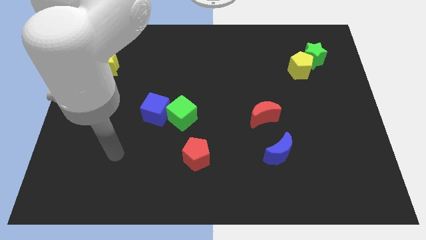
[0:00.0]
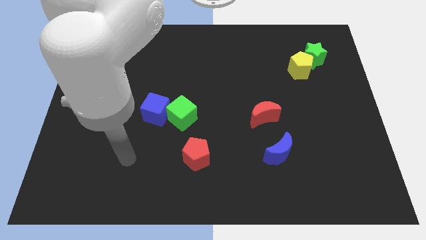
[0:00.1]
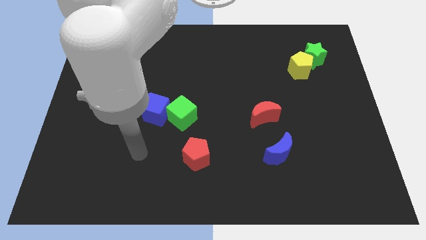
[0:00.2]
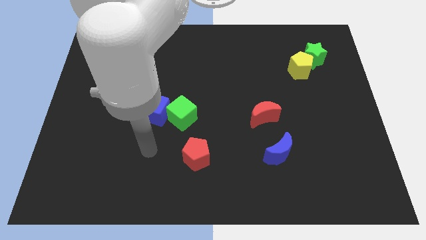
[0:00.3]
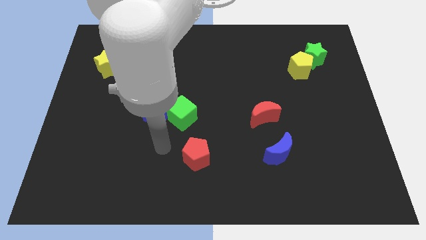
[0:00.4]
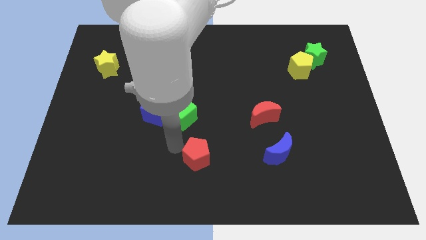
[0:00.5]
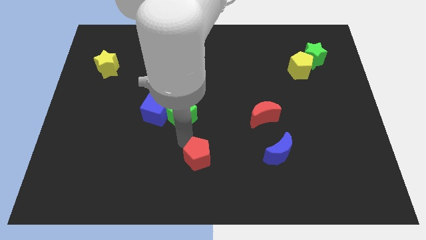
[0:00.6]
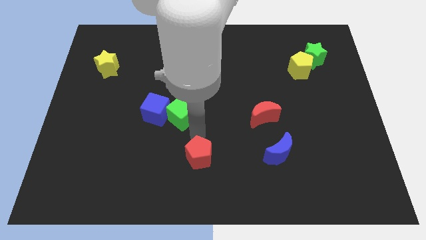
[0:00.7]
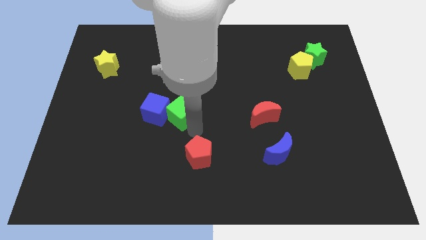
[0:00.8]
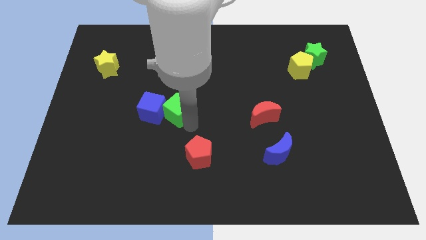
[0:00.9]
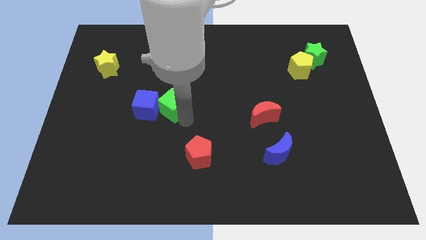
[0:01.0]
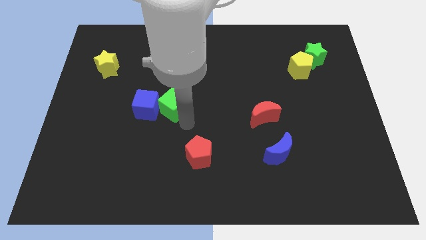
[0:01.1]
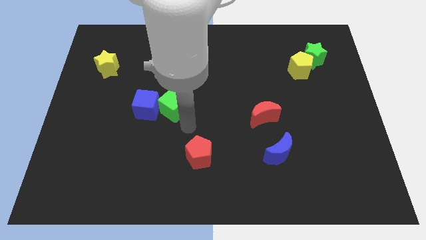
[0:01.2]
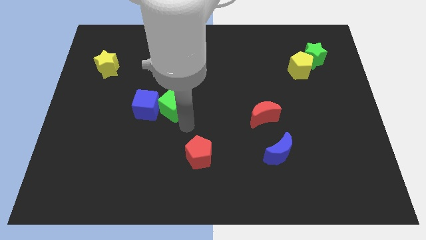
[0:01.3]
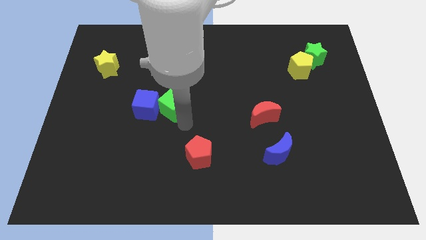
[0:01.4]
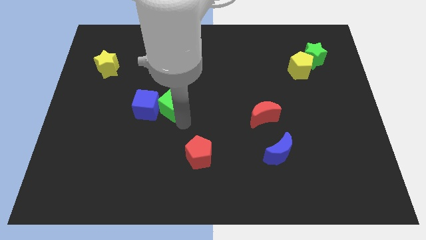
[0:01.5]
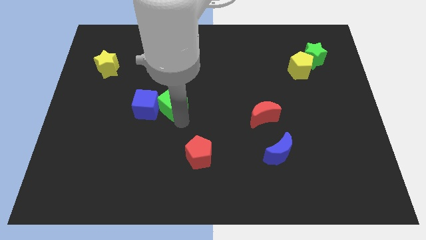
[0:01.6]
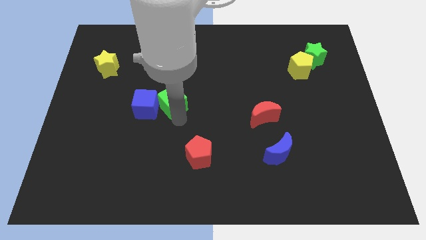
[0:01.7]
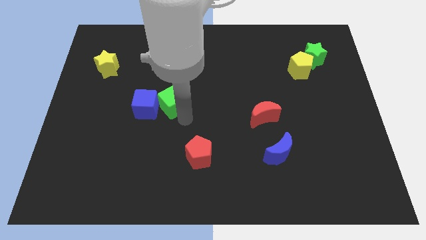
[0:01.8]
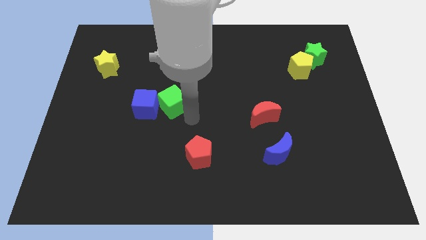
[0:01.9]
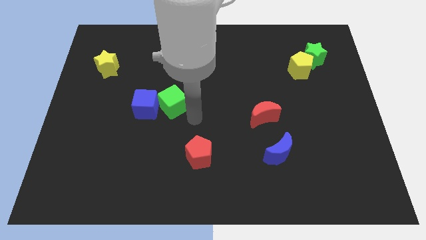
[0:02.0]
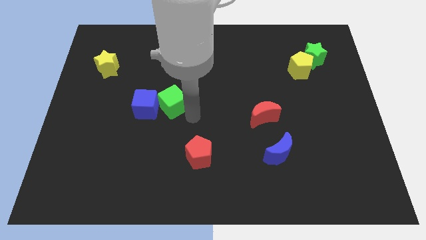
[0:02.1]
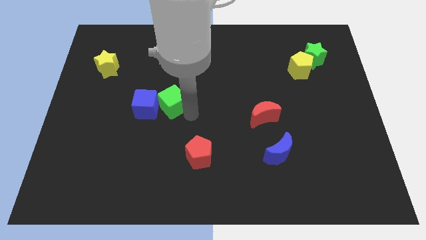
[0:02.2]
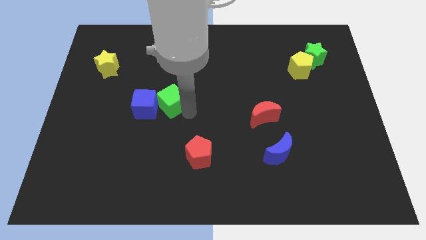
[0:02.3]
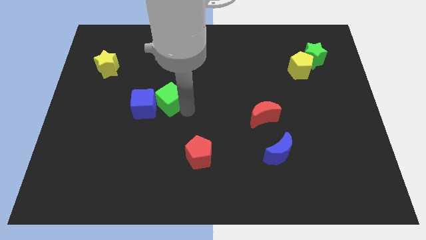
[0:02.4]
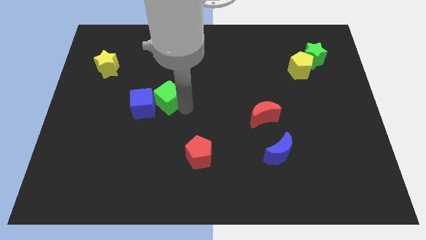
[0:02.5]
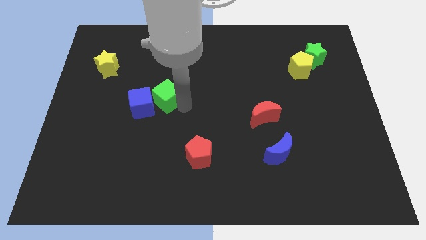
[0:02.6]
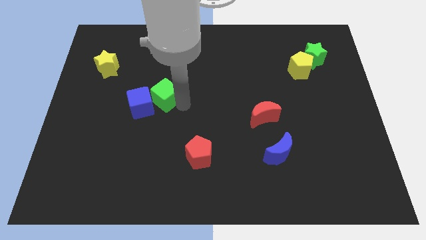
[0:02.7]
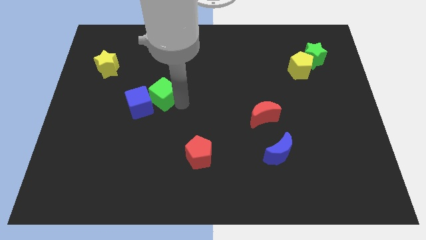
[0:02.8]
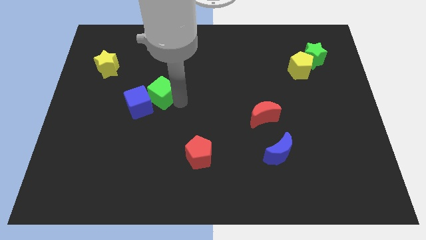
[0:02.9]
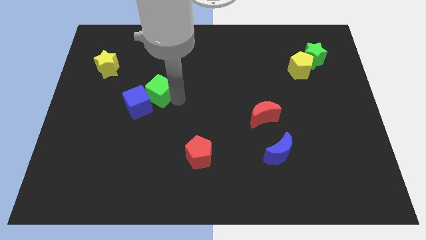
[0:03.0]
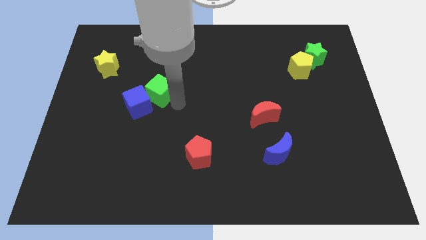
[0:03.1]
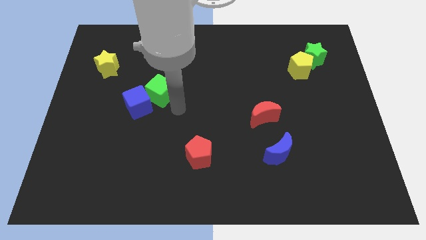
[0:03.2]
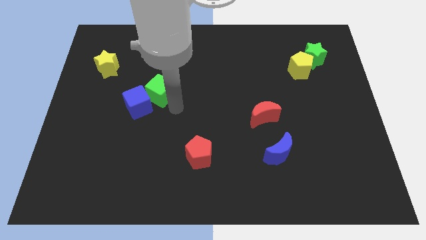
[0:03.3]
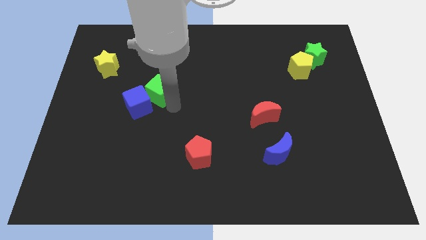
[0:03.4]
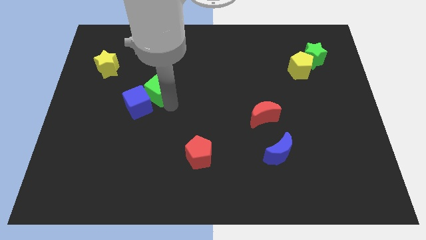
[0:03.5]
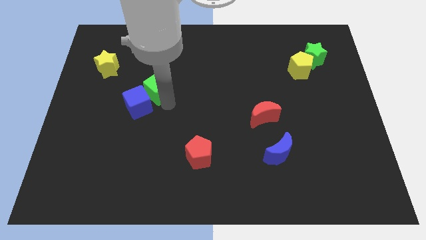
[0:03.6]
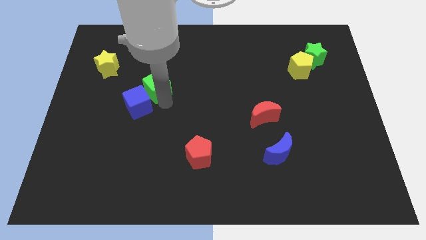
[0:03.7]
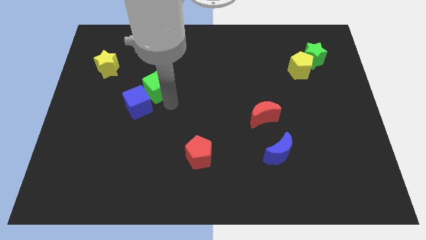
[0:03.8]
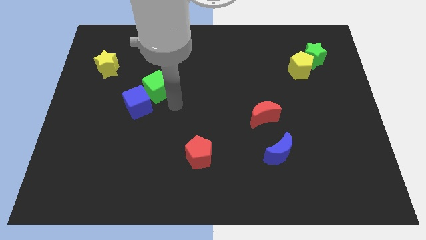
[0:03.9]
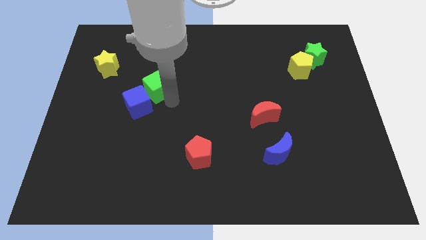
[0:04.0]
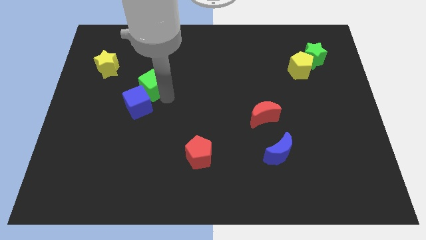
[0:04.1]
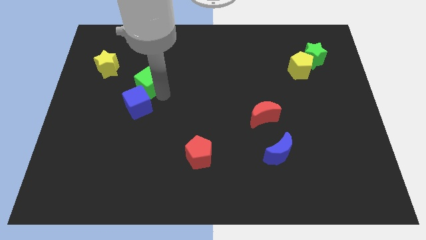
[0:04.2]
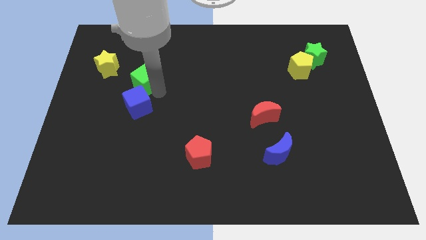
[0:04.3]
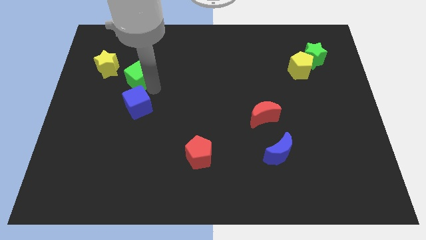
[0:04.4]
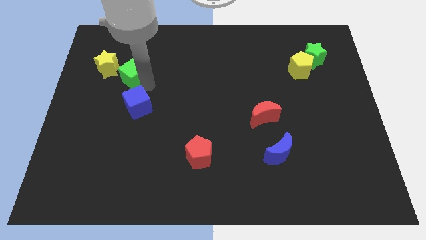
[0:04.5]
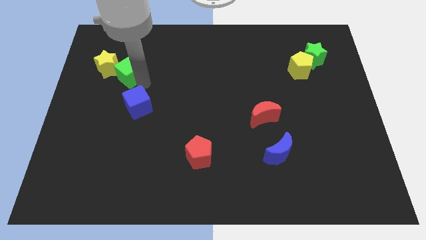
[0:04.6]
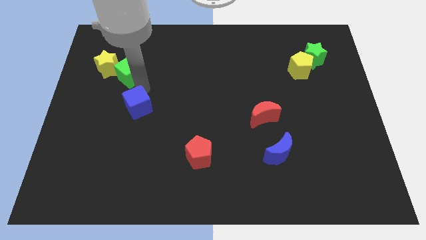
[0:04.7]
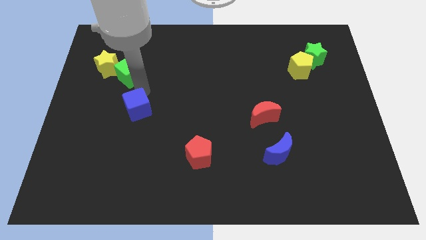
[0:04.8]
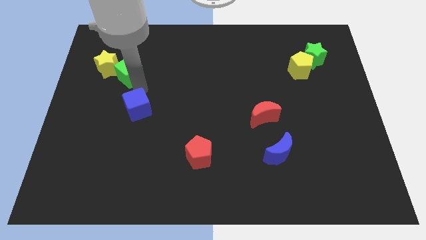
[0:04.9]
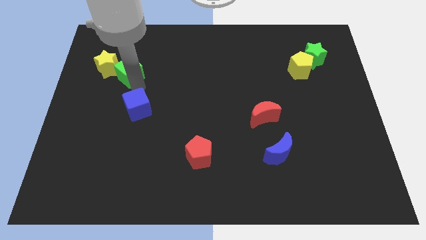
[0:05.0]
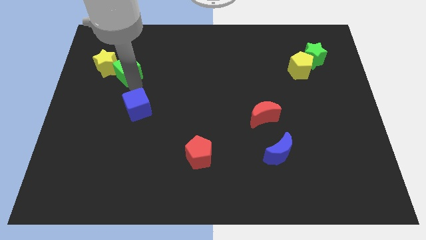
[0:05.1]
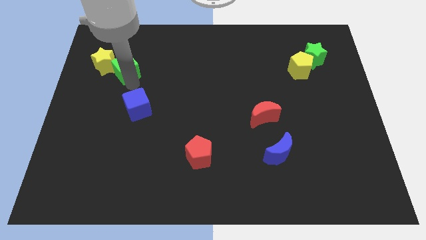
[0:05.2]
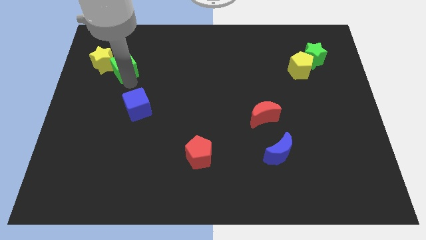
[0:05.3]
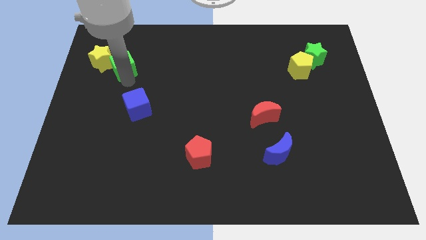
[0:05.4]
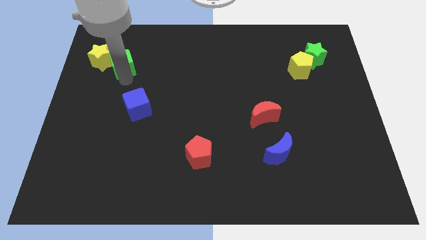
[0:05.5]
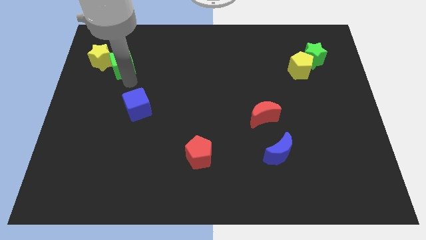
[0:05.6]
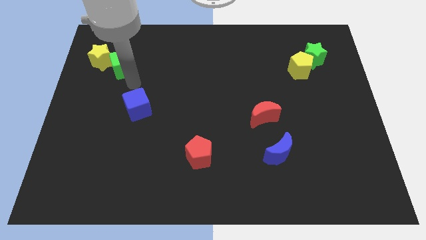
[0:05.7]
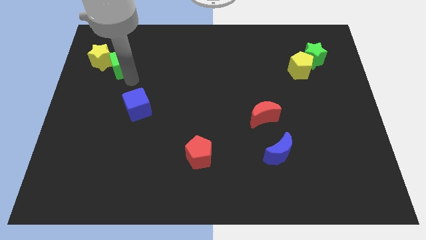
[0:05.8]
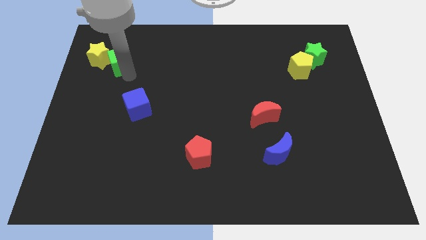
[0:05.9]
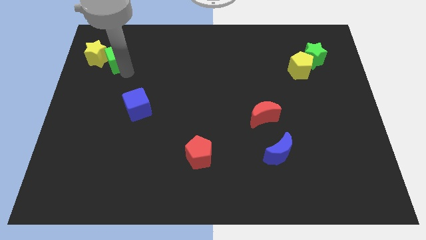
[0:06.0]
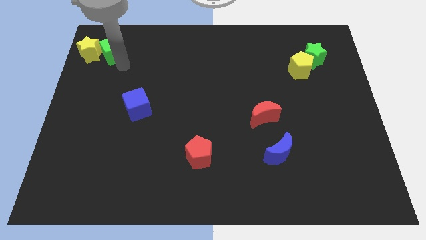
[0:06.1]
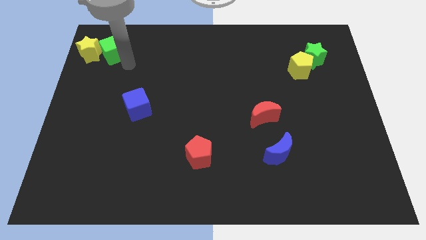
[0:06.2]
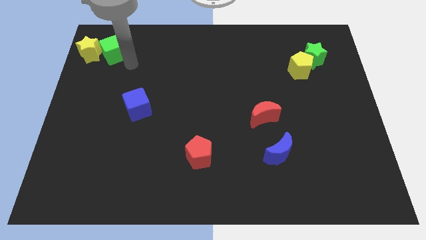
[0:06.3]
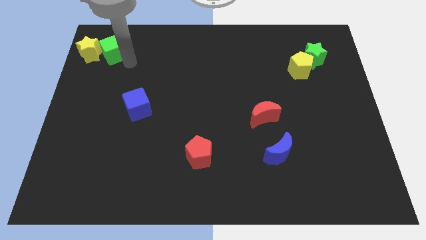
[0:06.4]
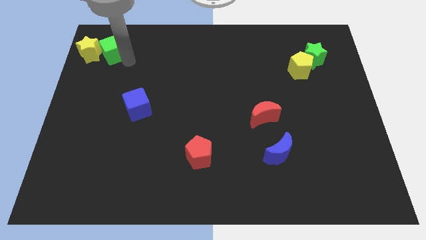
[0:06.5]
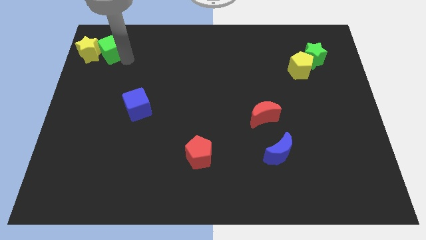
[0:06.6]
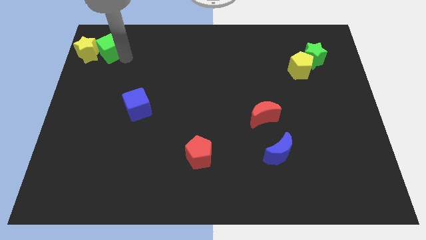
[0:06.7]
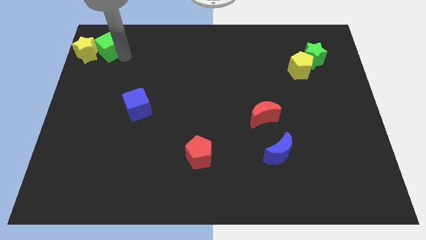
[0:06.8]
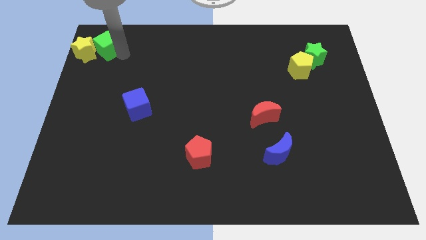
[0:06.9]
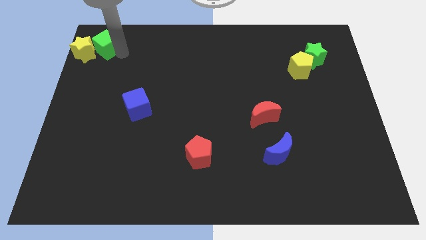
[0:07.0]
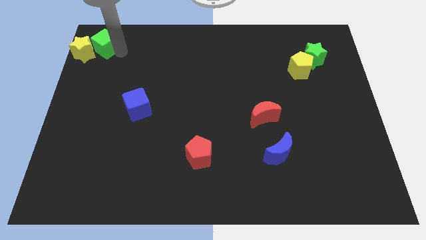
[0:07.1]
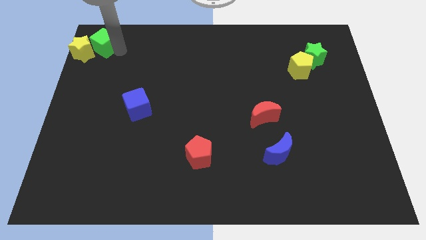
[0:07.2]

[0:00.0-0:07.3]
move the green cube to the top left of the board
